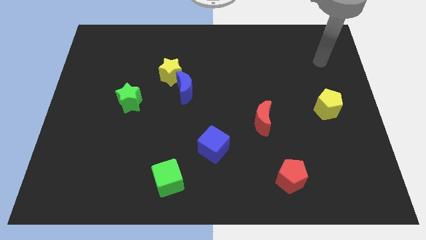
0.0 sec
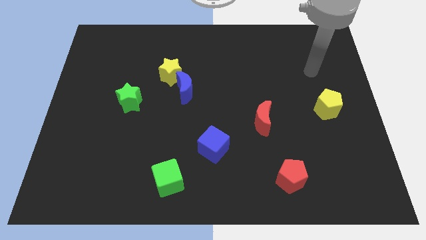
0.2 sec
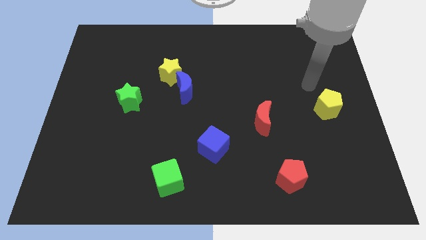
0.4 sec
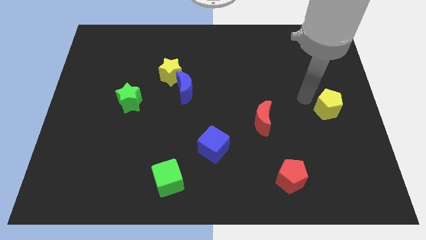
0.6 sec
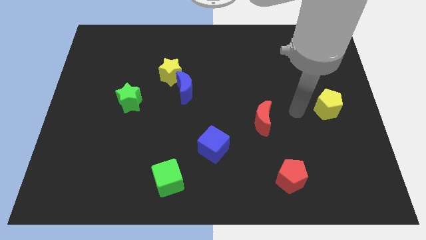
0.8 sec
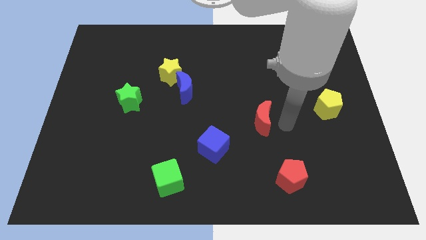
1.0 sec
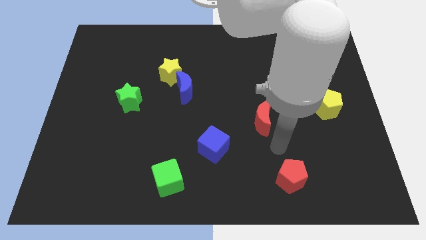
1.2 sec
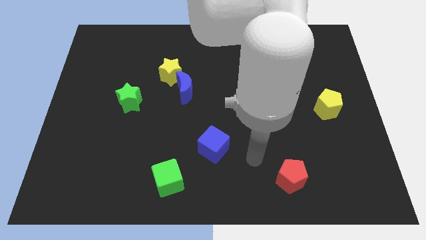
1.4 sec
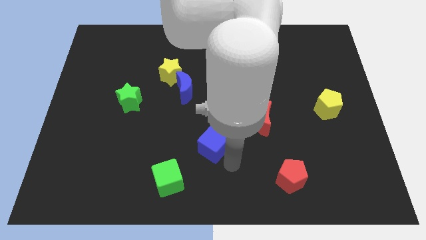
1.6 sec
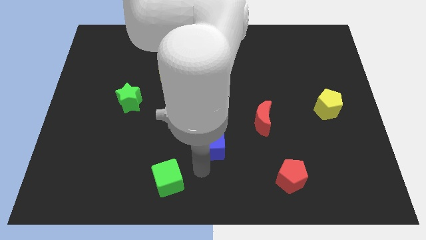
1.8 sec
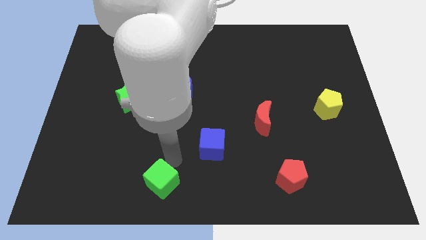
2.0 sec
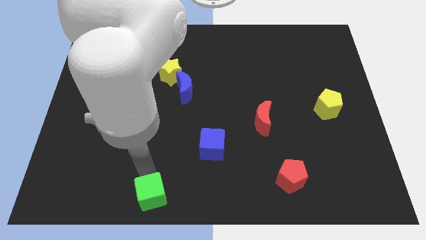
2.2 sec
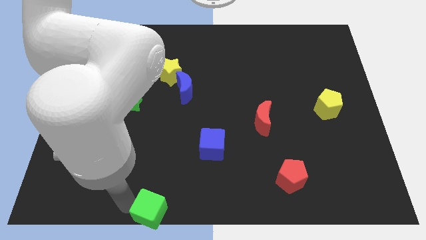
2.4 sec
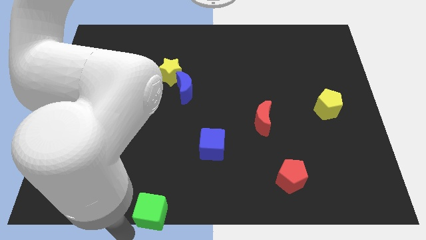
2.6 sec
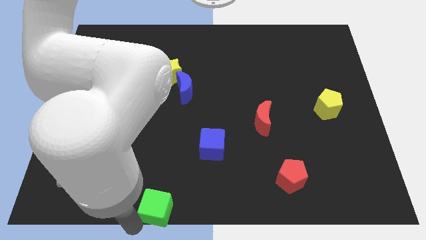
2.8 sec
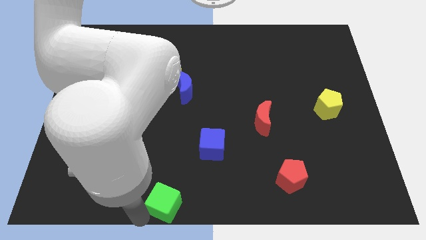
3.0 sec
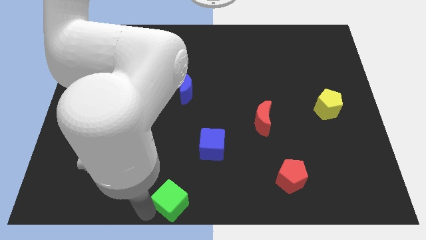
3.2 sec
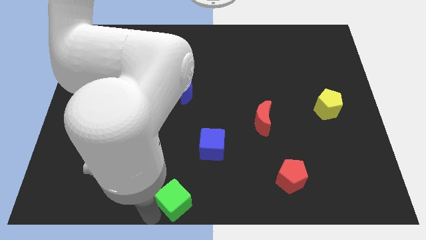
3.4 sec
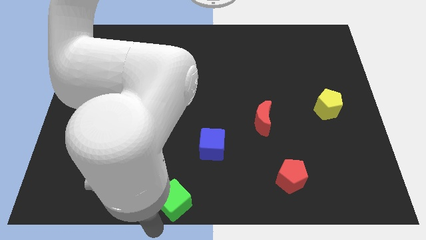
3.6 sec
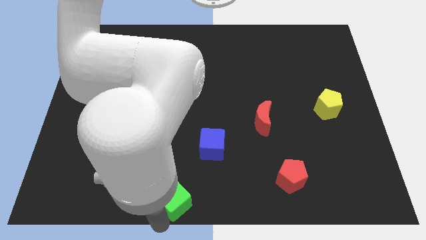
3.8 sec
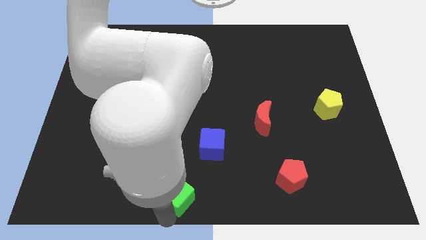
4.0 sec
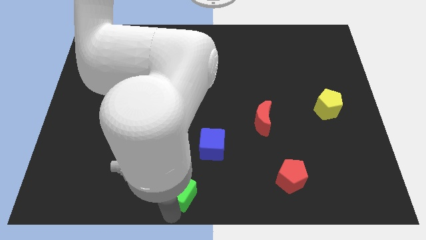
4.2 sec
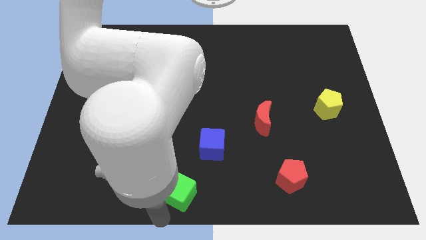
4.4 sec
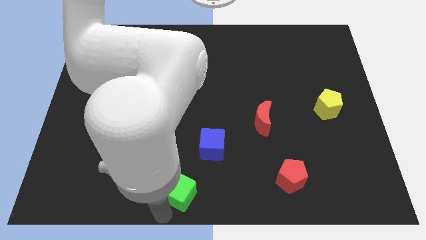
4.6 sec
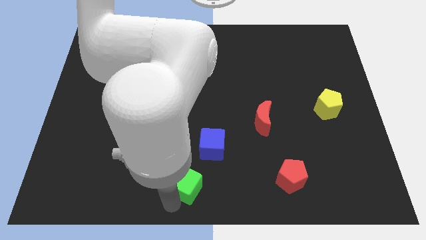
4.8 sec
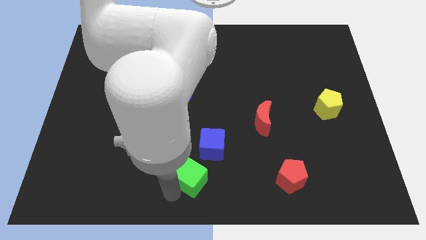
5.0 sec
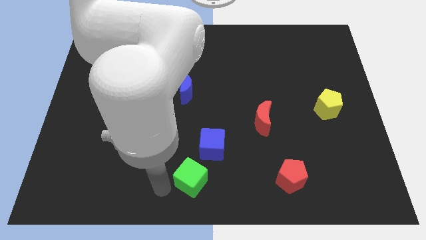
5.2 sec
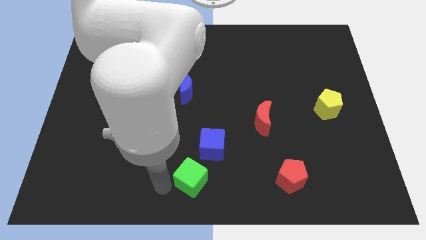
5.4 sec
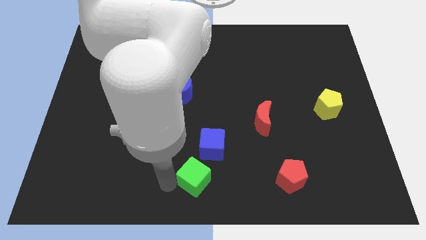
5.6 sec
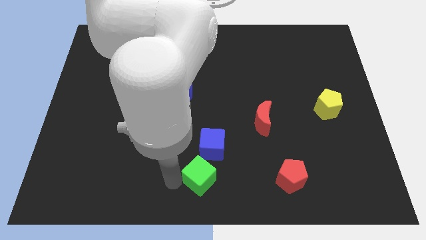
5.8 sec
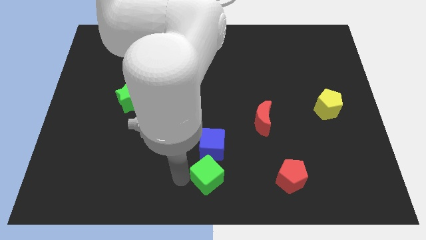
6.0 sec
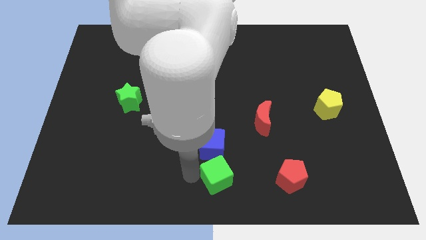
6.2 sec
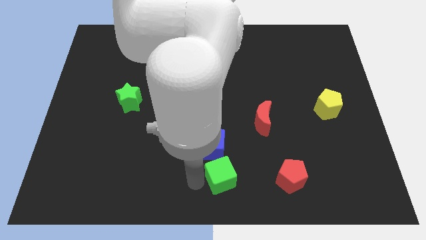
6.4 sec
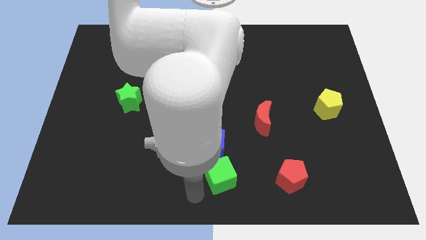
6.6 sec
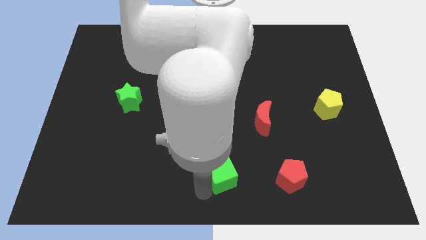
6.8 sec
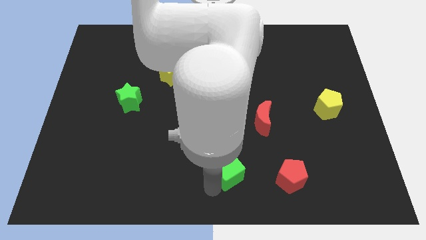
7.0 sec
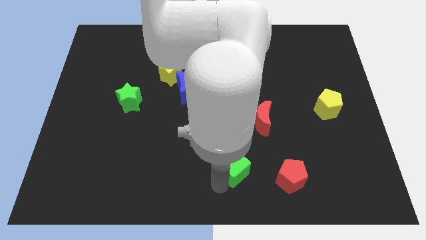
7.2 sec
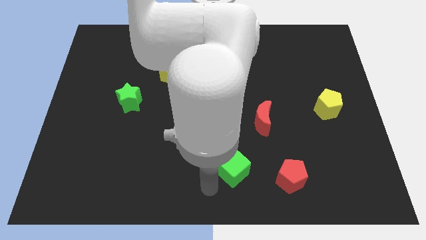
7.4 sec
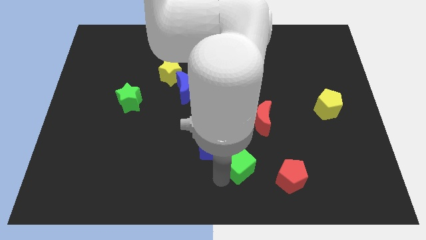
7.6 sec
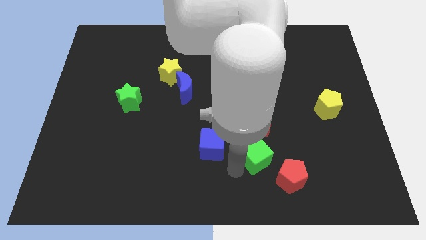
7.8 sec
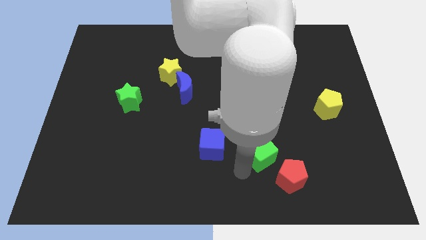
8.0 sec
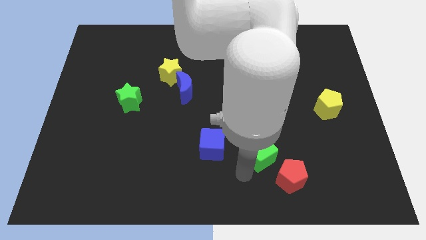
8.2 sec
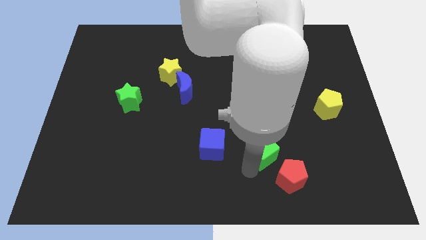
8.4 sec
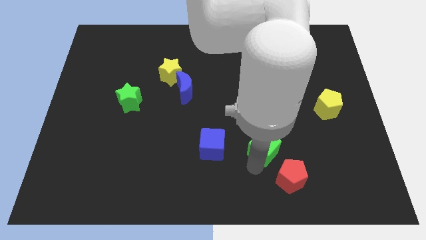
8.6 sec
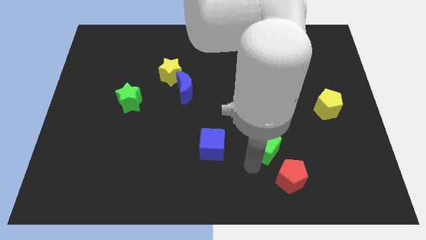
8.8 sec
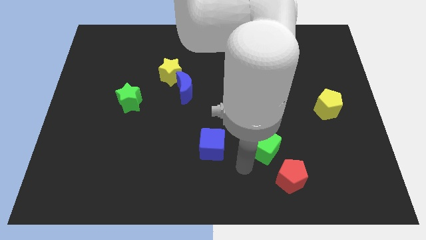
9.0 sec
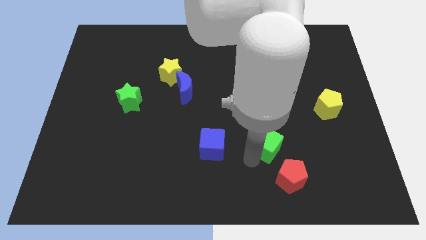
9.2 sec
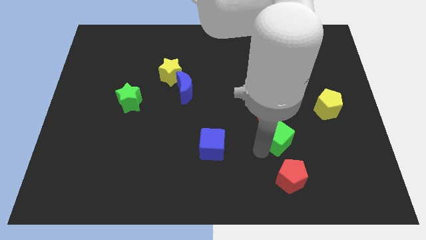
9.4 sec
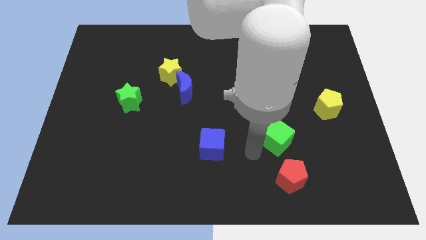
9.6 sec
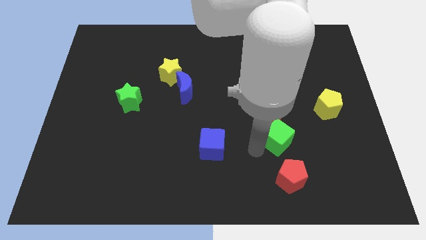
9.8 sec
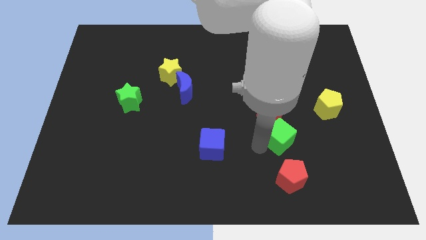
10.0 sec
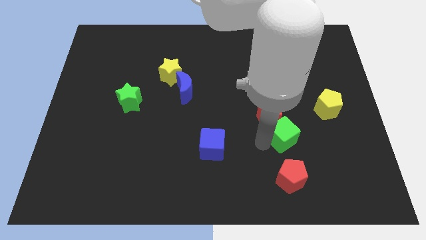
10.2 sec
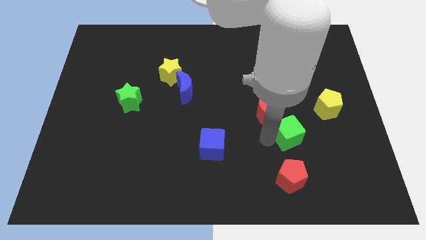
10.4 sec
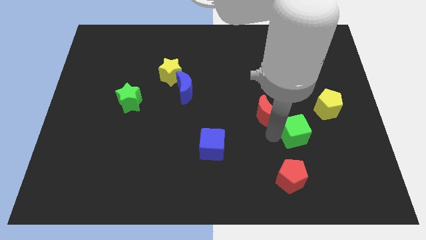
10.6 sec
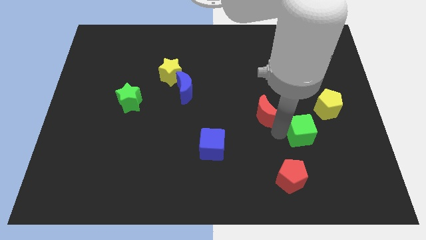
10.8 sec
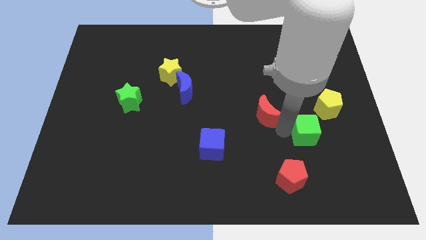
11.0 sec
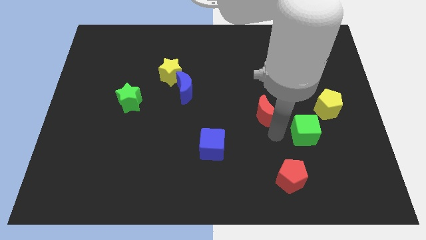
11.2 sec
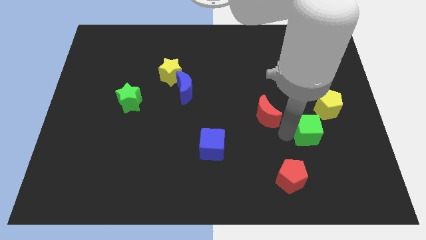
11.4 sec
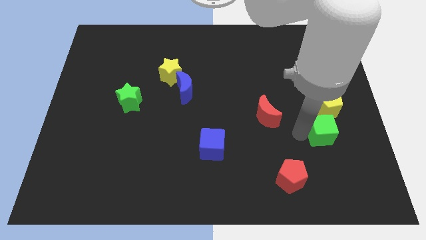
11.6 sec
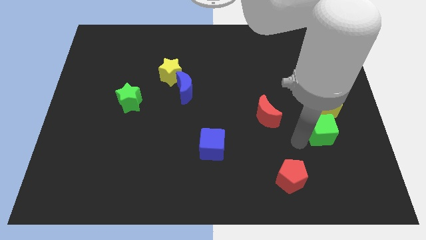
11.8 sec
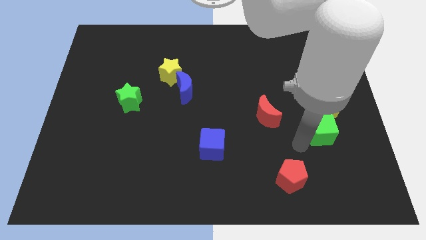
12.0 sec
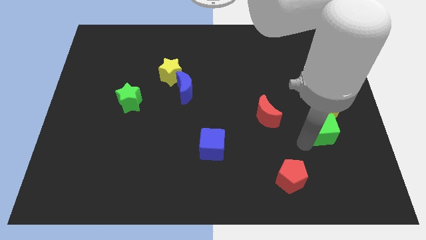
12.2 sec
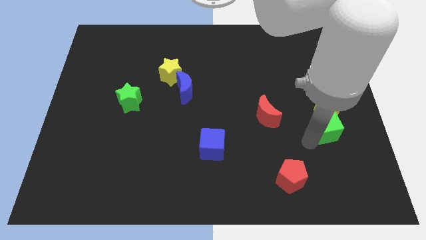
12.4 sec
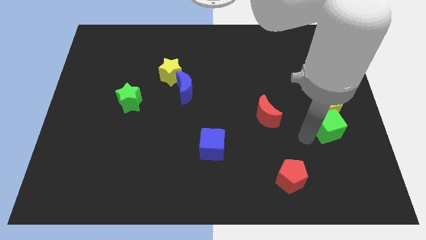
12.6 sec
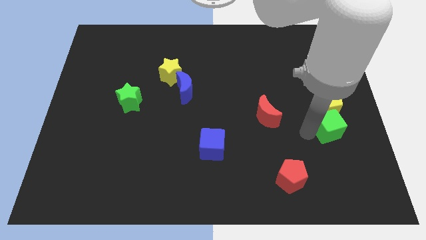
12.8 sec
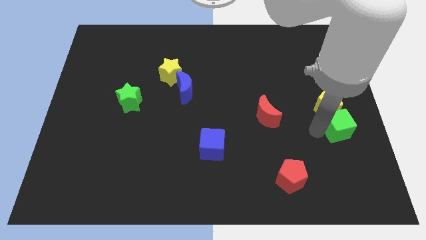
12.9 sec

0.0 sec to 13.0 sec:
slide the green cube to the right side

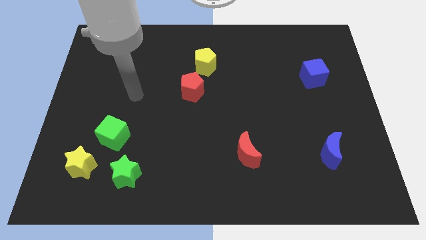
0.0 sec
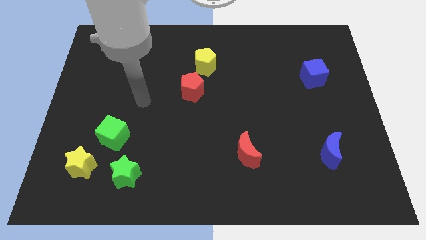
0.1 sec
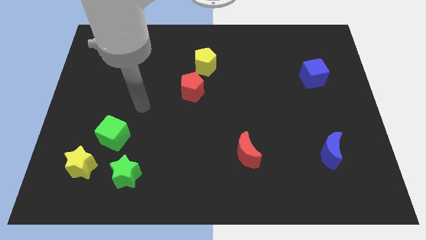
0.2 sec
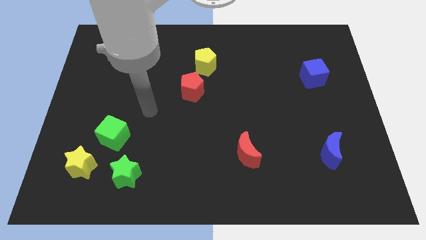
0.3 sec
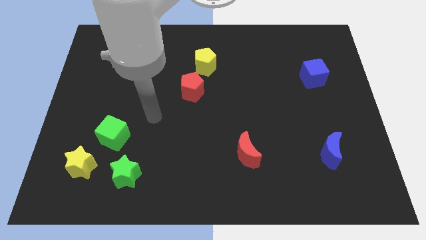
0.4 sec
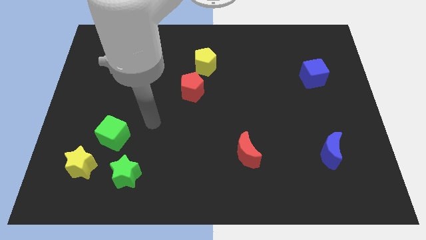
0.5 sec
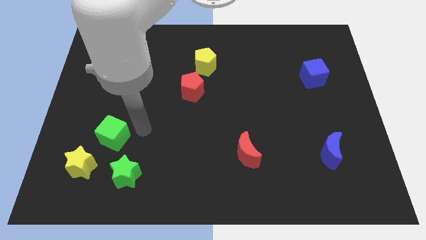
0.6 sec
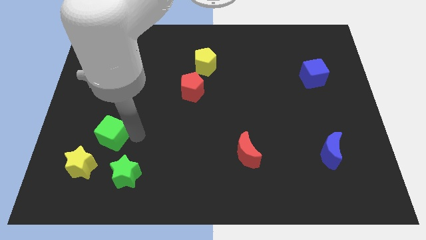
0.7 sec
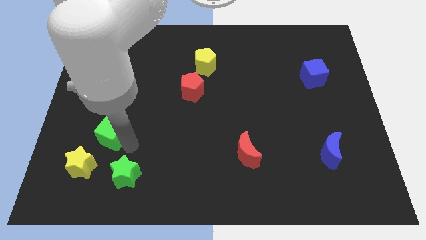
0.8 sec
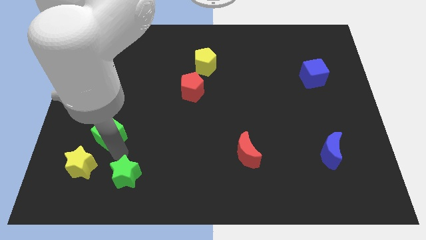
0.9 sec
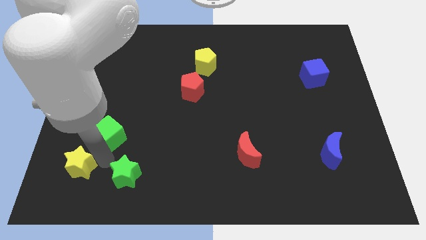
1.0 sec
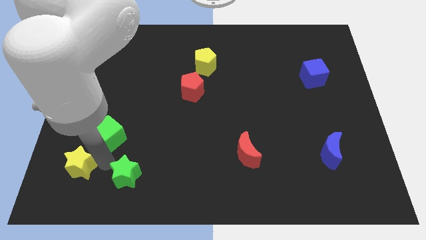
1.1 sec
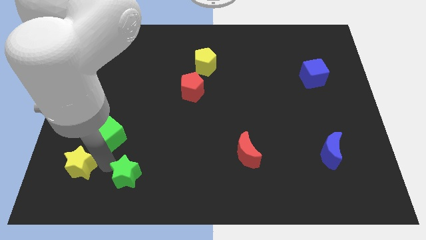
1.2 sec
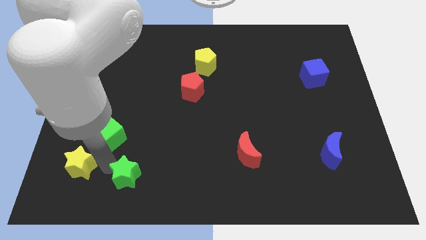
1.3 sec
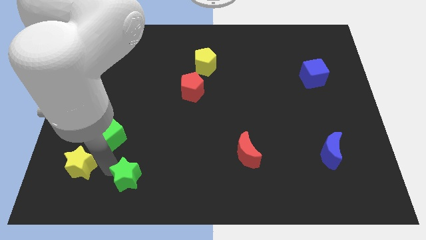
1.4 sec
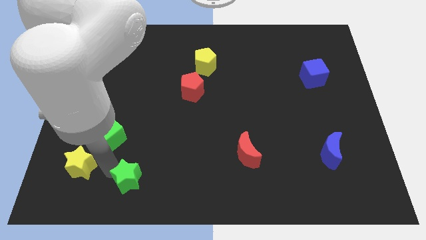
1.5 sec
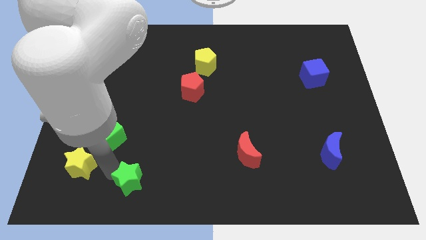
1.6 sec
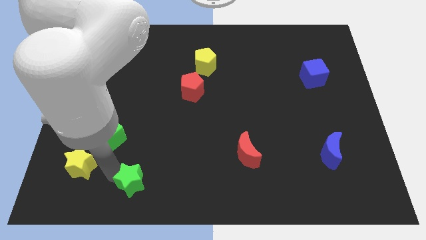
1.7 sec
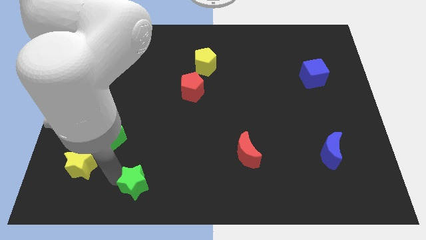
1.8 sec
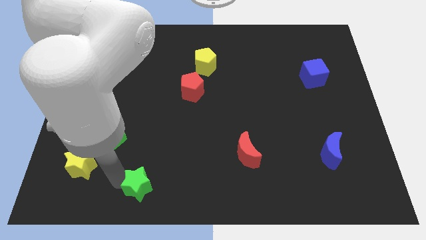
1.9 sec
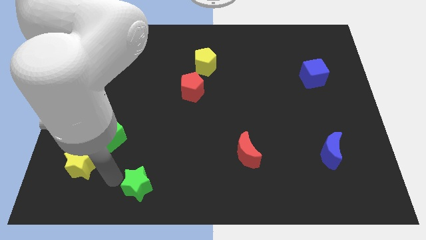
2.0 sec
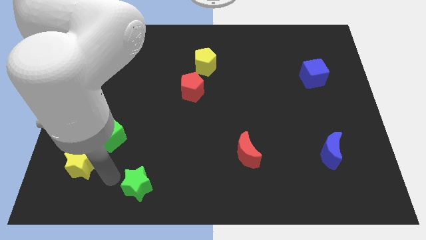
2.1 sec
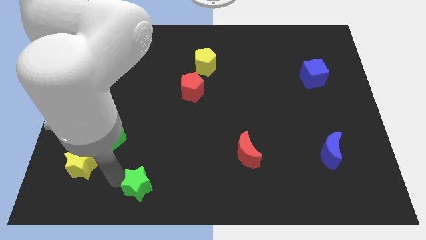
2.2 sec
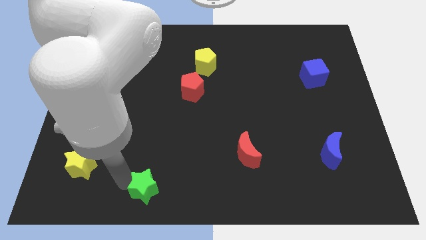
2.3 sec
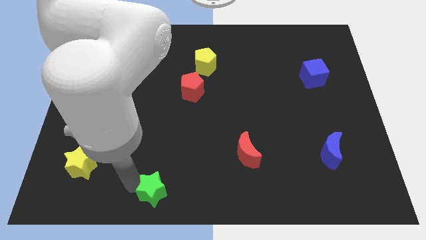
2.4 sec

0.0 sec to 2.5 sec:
slide the green star to the bottom
